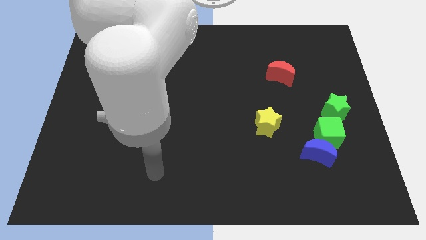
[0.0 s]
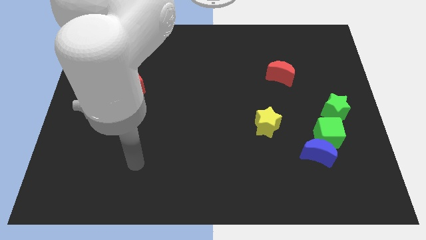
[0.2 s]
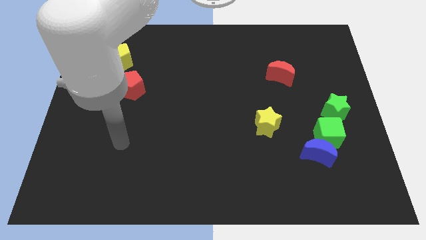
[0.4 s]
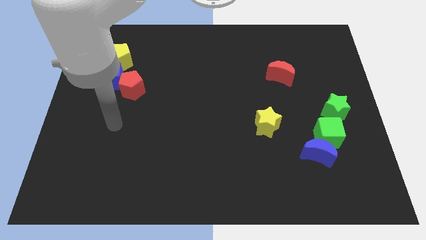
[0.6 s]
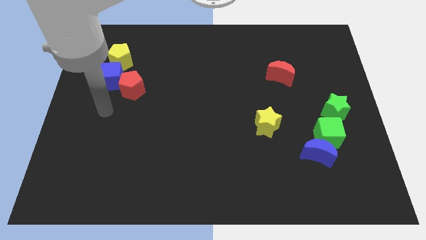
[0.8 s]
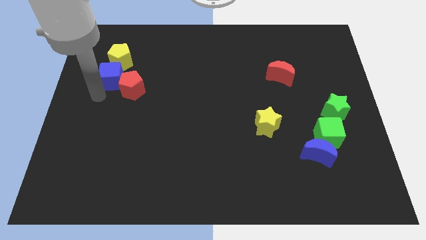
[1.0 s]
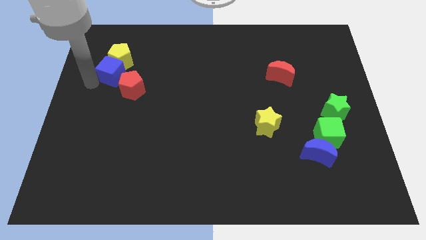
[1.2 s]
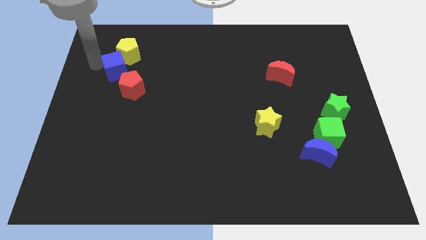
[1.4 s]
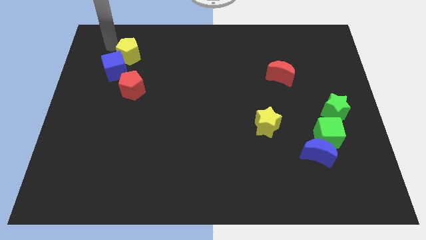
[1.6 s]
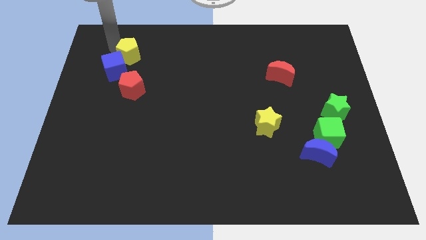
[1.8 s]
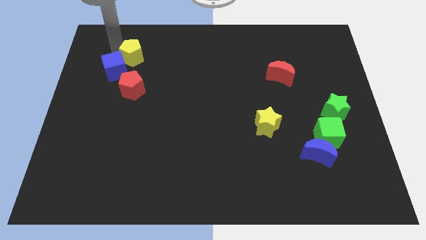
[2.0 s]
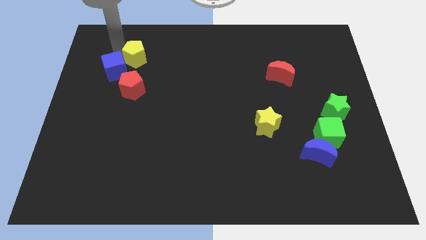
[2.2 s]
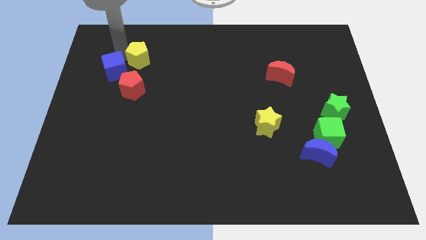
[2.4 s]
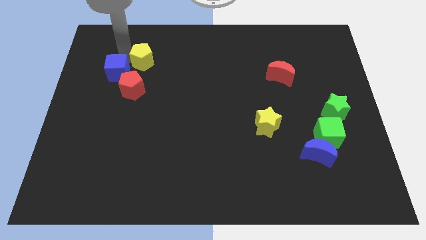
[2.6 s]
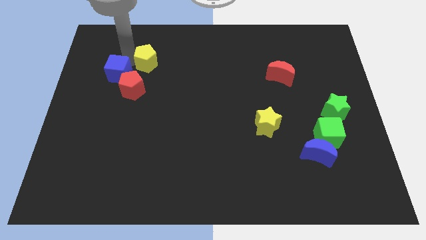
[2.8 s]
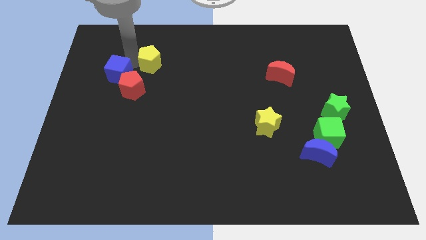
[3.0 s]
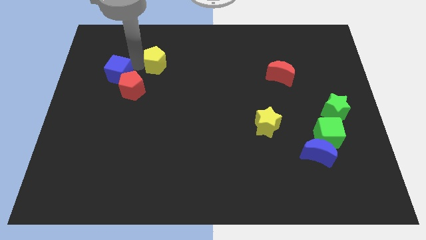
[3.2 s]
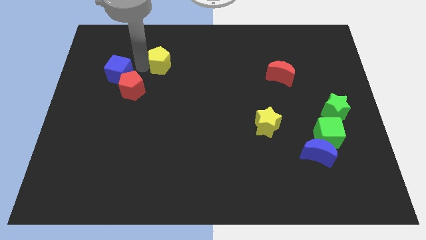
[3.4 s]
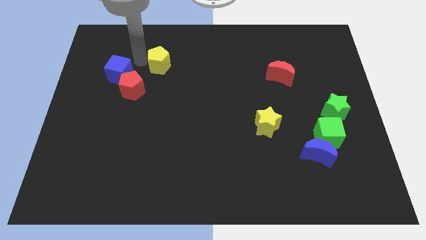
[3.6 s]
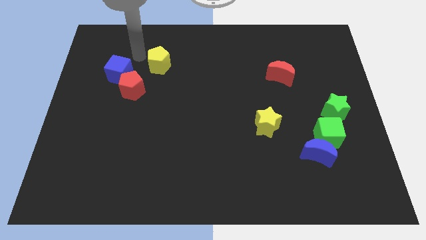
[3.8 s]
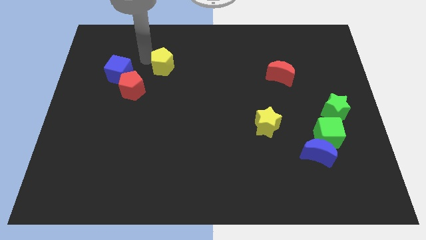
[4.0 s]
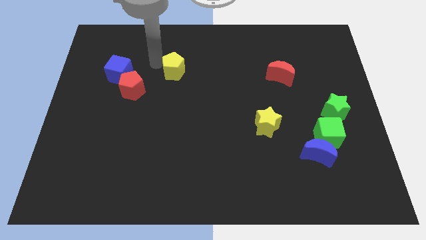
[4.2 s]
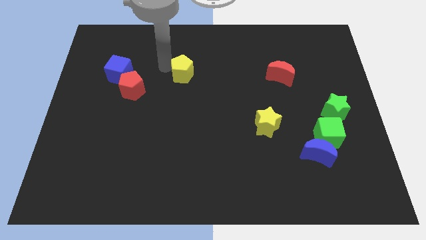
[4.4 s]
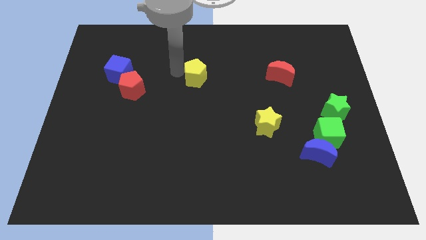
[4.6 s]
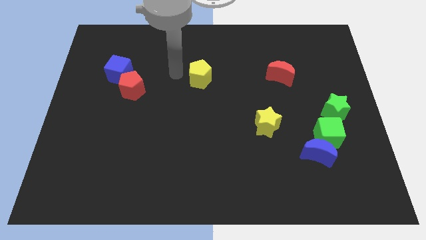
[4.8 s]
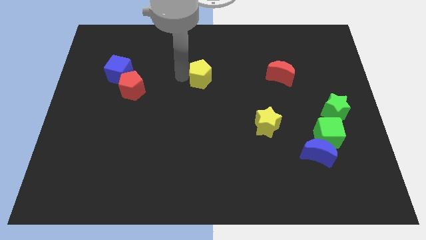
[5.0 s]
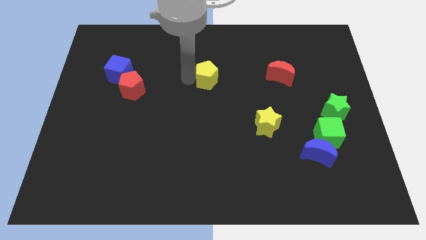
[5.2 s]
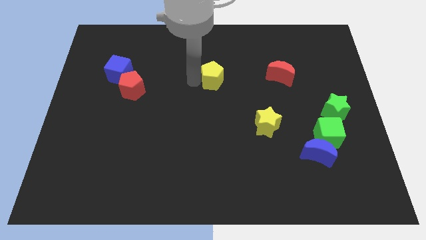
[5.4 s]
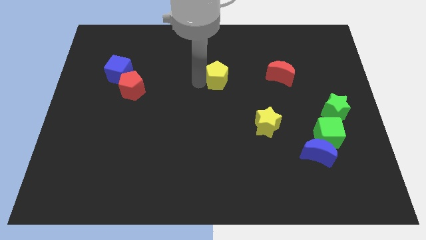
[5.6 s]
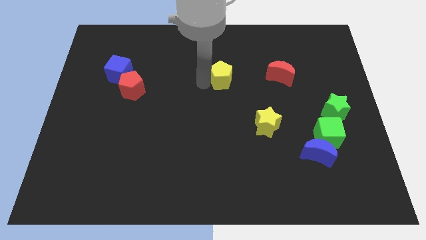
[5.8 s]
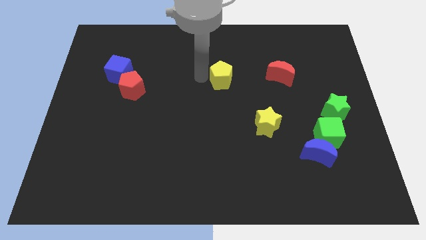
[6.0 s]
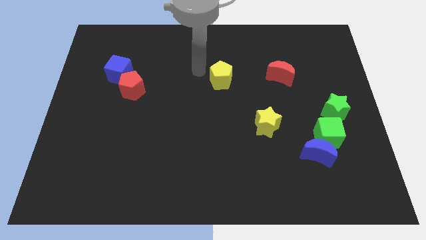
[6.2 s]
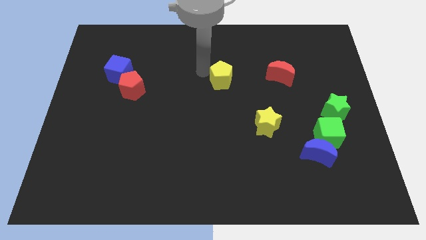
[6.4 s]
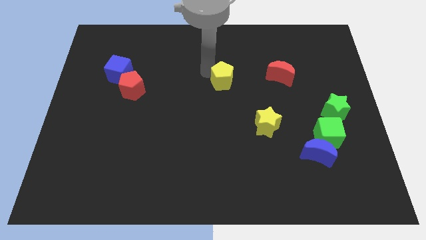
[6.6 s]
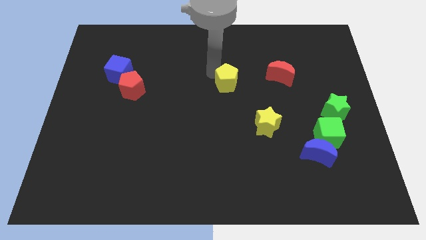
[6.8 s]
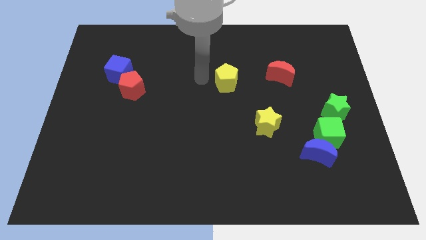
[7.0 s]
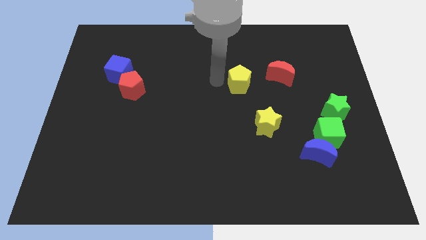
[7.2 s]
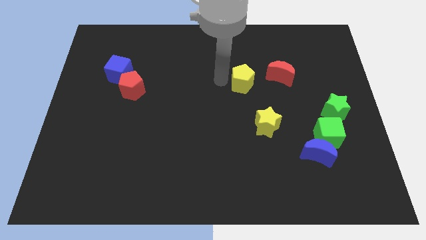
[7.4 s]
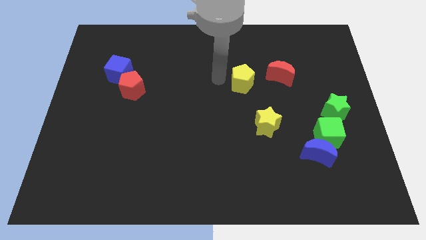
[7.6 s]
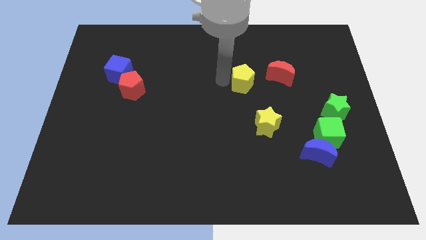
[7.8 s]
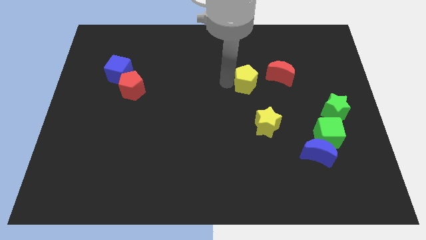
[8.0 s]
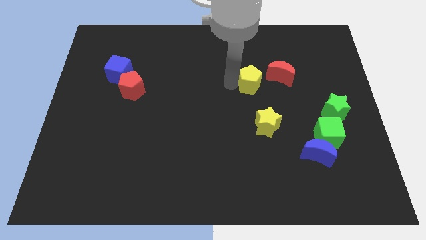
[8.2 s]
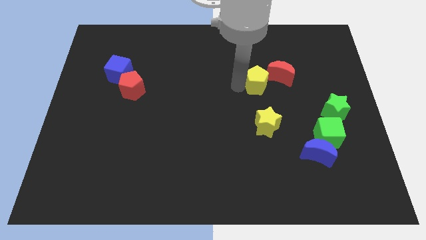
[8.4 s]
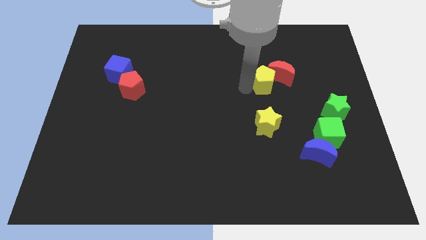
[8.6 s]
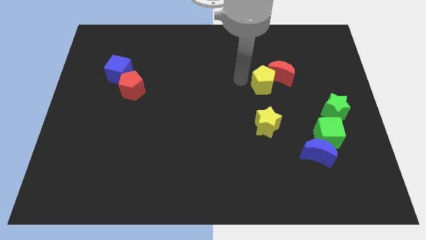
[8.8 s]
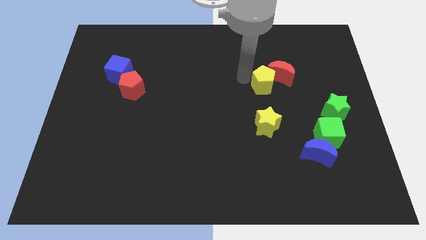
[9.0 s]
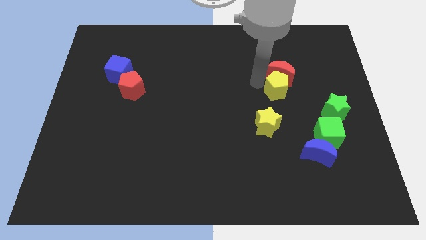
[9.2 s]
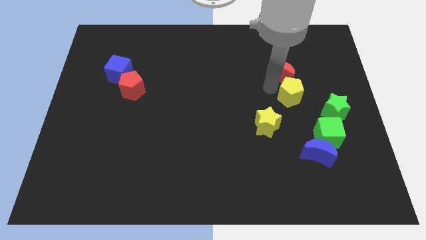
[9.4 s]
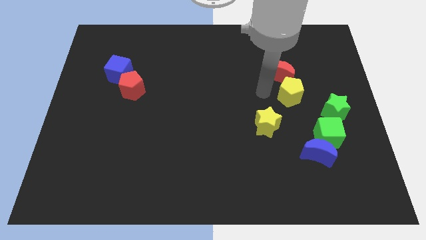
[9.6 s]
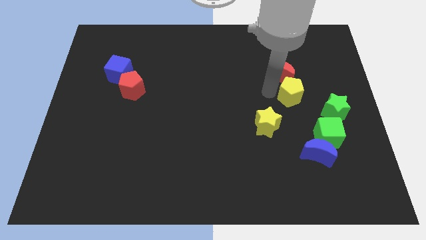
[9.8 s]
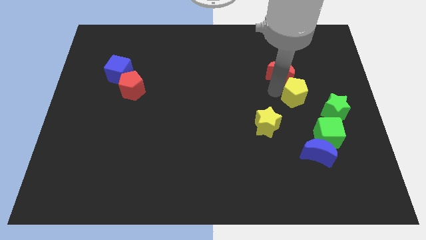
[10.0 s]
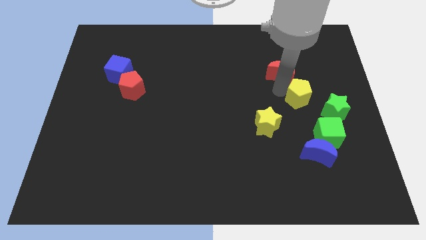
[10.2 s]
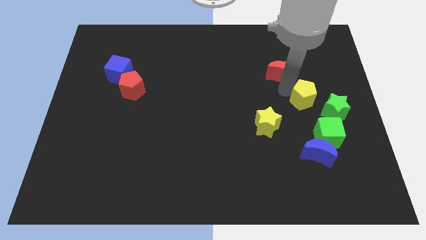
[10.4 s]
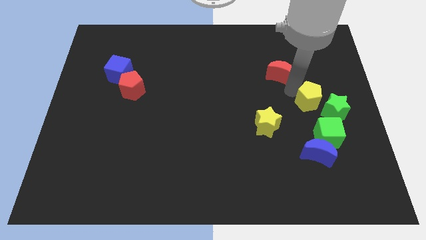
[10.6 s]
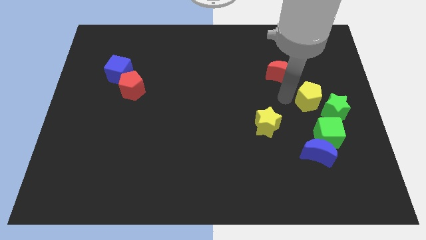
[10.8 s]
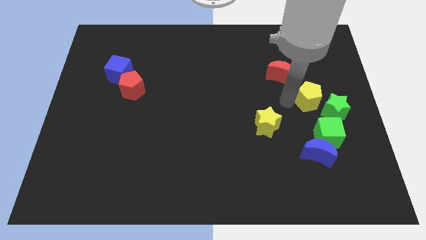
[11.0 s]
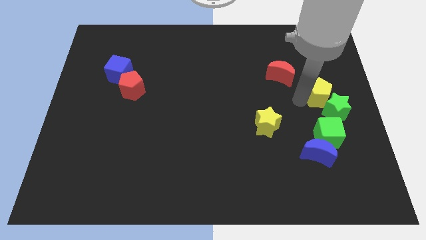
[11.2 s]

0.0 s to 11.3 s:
put the yellow pentagon to the right side of the board
